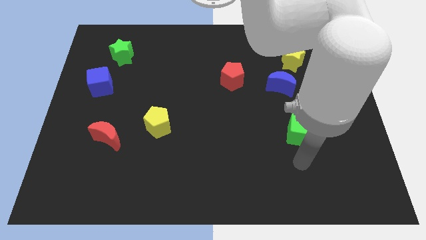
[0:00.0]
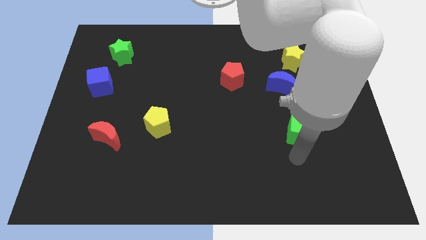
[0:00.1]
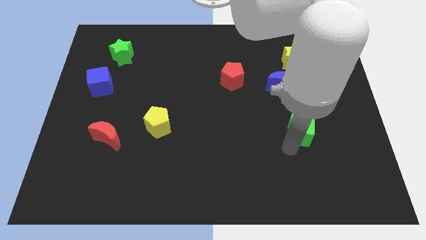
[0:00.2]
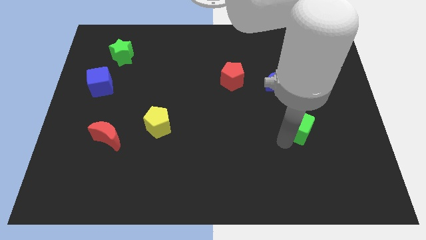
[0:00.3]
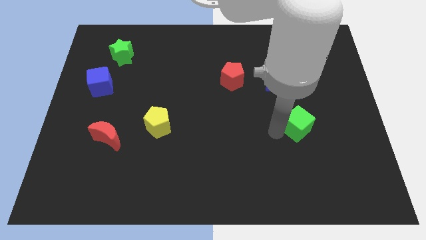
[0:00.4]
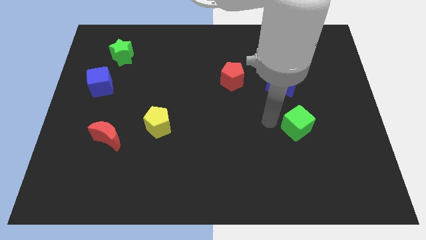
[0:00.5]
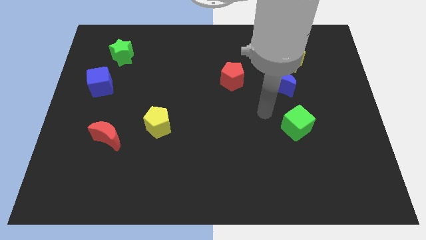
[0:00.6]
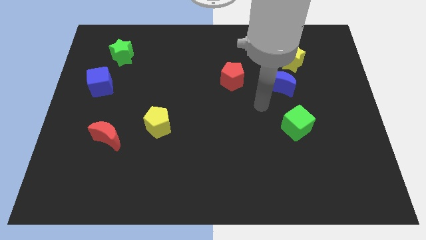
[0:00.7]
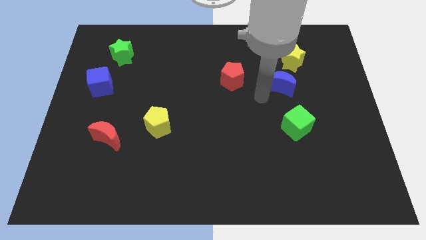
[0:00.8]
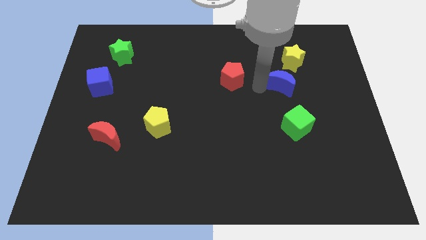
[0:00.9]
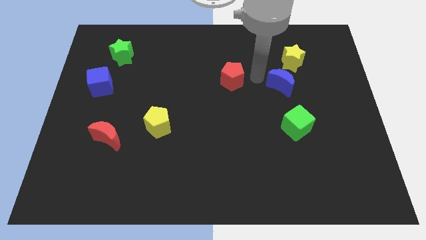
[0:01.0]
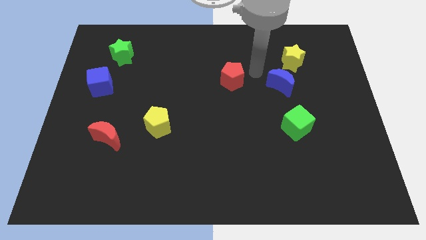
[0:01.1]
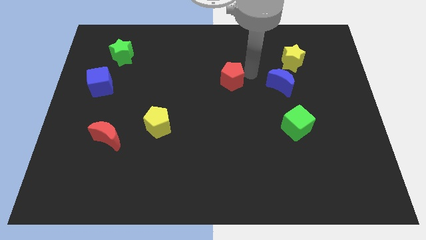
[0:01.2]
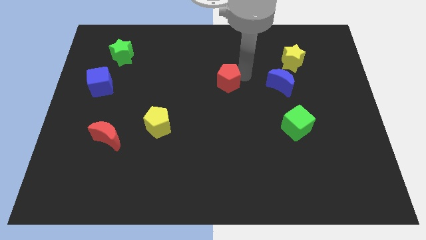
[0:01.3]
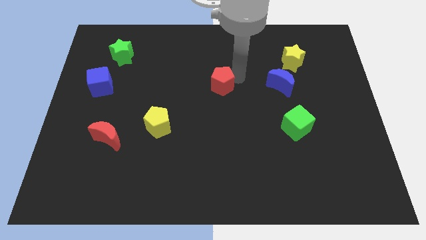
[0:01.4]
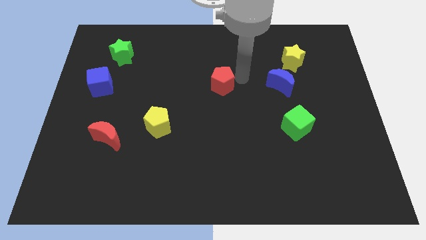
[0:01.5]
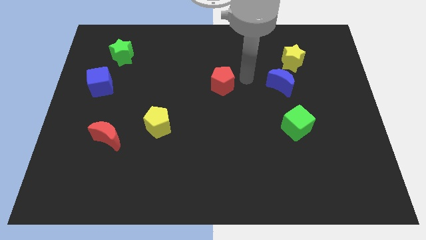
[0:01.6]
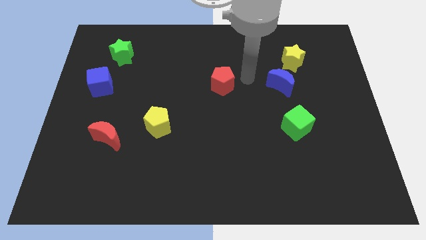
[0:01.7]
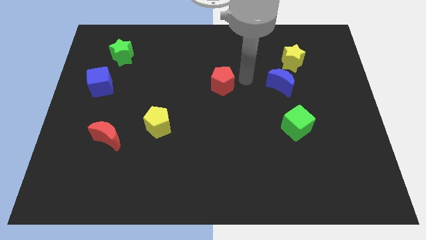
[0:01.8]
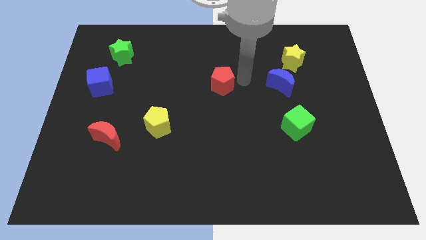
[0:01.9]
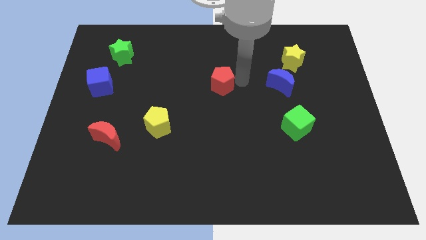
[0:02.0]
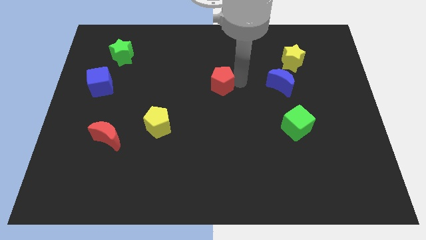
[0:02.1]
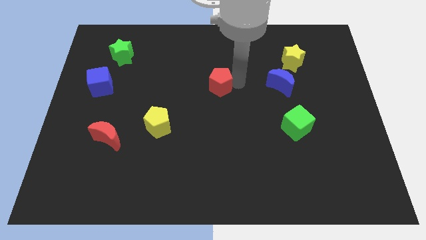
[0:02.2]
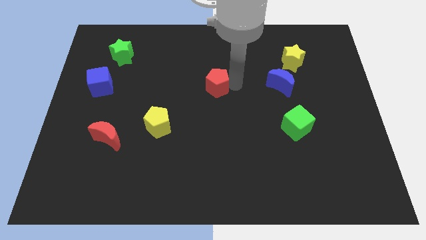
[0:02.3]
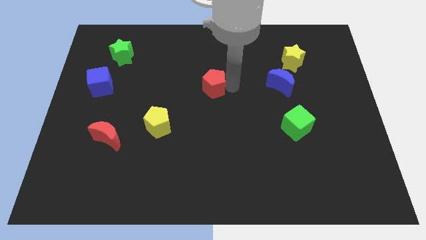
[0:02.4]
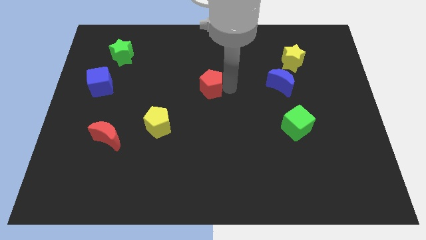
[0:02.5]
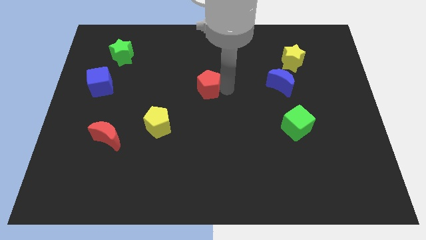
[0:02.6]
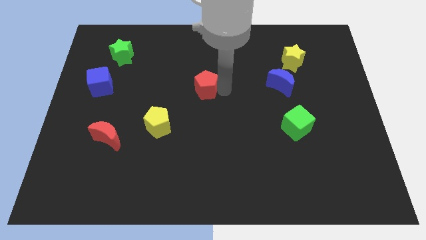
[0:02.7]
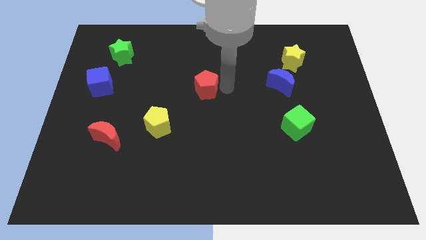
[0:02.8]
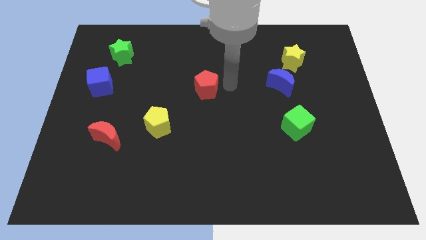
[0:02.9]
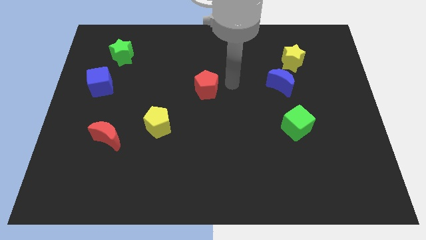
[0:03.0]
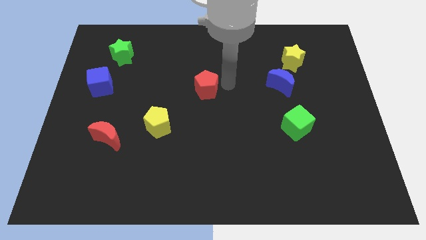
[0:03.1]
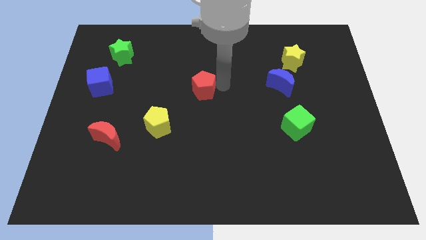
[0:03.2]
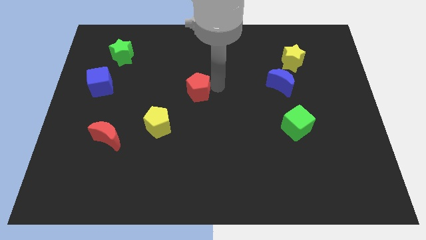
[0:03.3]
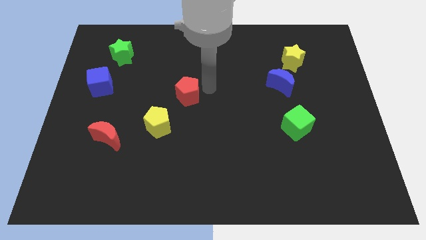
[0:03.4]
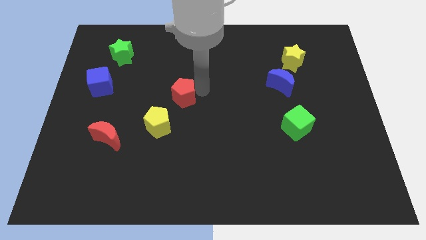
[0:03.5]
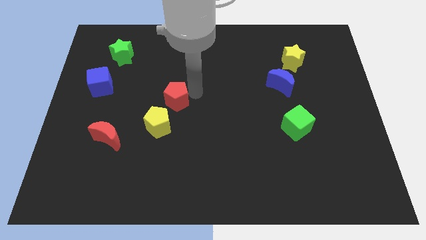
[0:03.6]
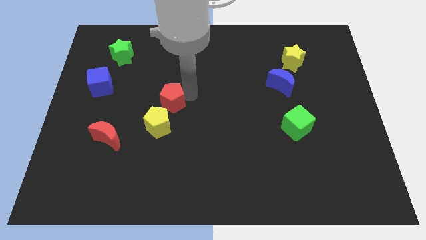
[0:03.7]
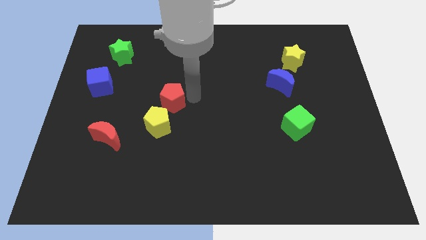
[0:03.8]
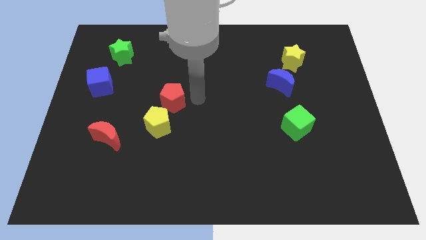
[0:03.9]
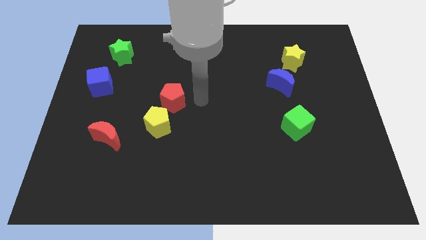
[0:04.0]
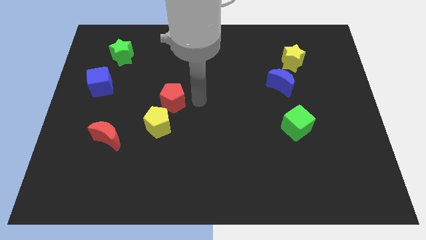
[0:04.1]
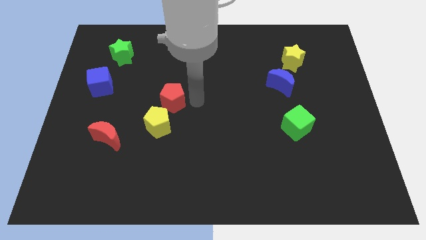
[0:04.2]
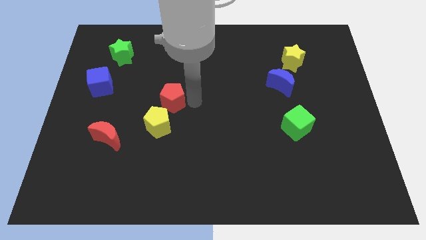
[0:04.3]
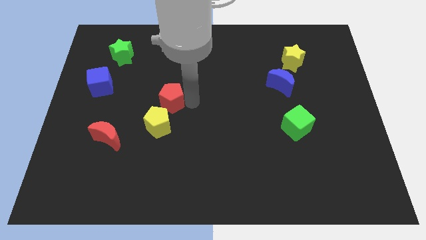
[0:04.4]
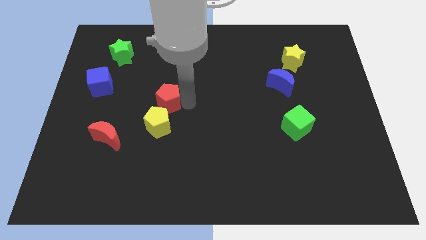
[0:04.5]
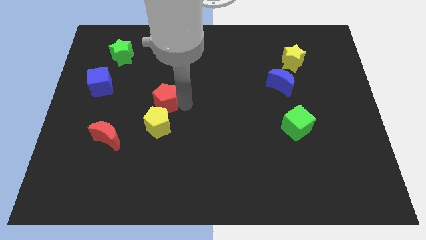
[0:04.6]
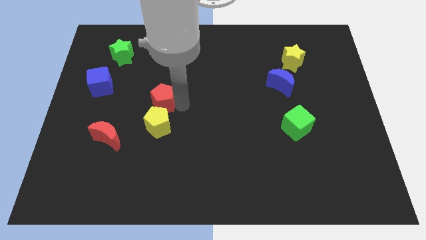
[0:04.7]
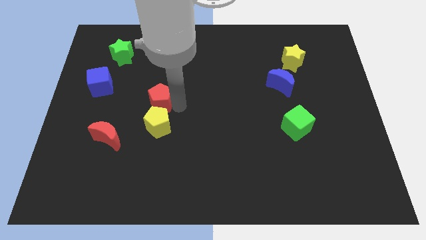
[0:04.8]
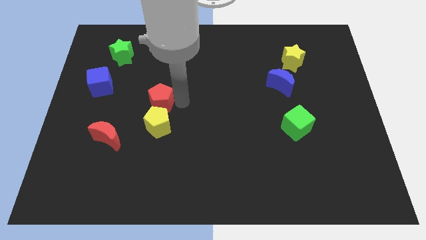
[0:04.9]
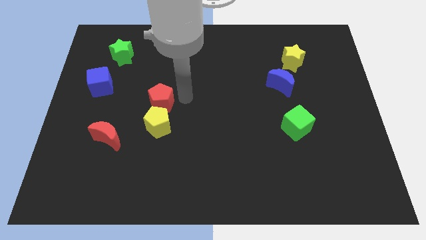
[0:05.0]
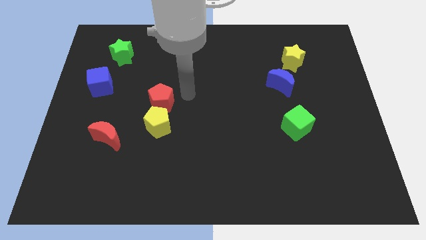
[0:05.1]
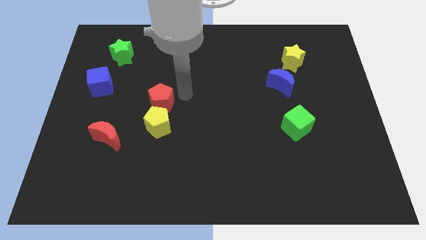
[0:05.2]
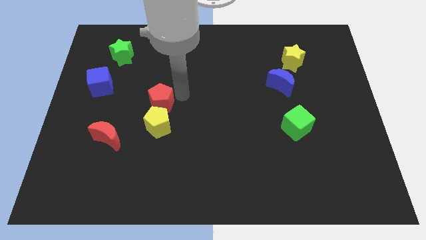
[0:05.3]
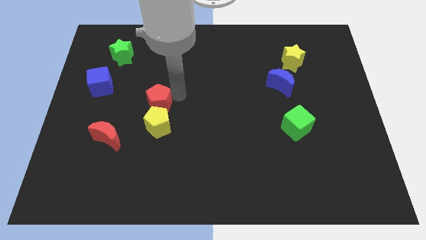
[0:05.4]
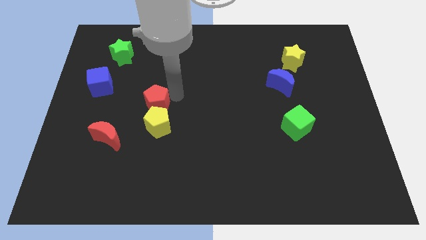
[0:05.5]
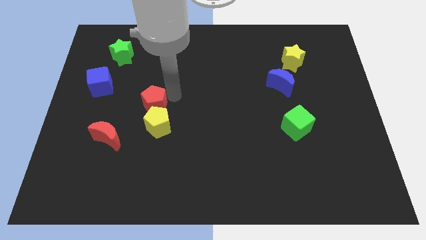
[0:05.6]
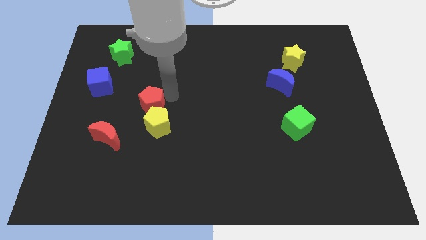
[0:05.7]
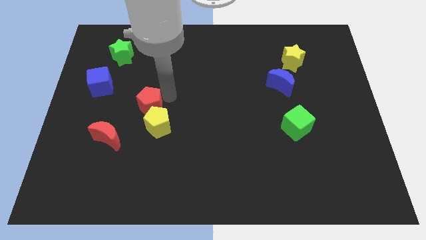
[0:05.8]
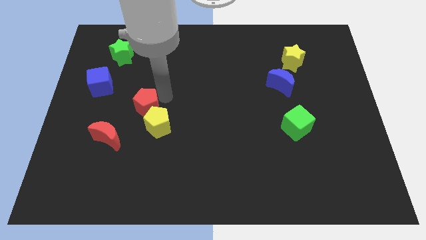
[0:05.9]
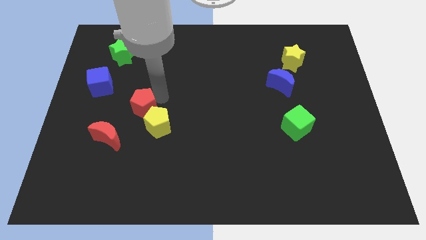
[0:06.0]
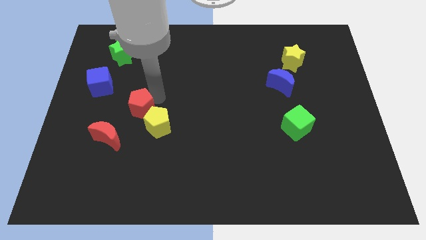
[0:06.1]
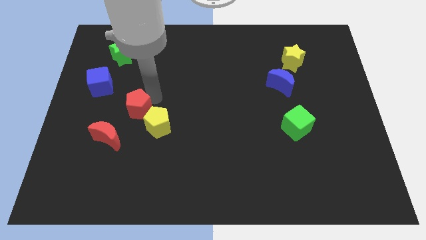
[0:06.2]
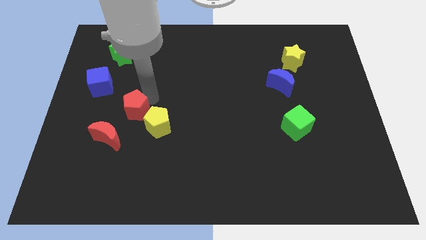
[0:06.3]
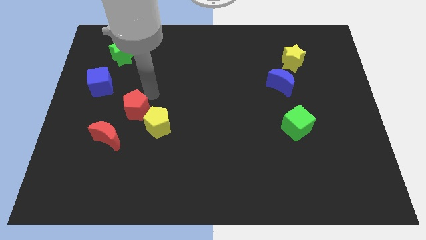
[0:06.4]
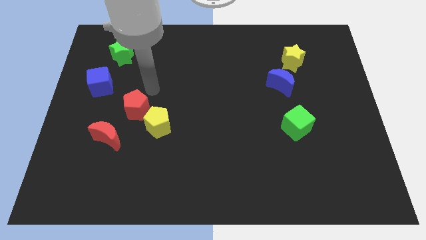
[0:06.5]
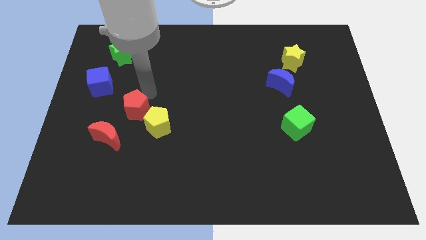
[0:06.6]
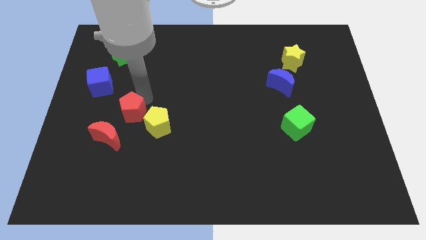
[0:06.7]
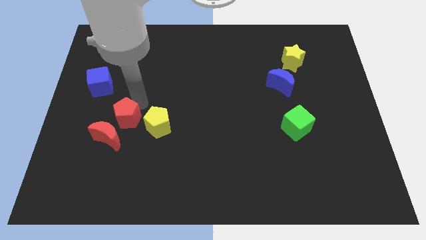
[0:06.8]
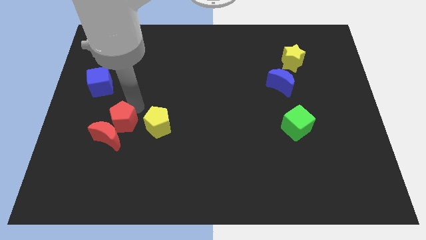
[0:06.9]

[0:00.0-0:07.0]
push the red pentagon to the red moon
